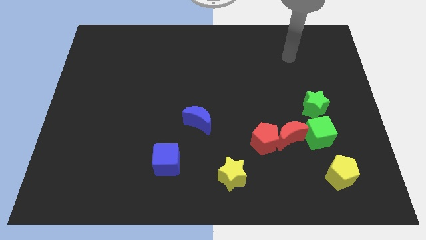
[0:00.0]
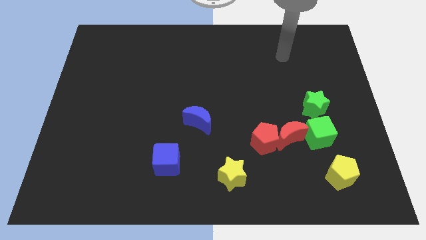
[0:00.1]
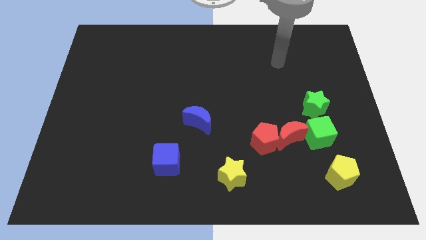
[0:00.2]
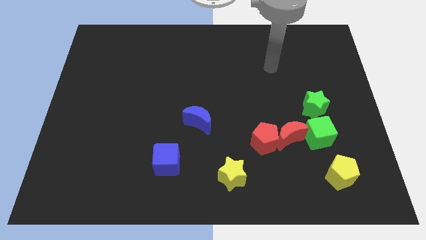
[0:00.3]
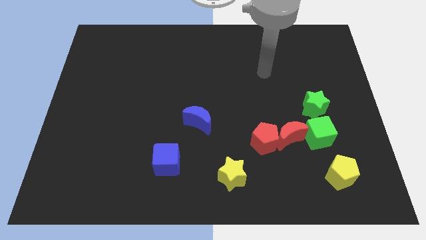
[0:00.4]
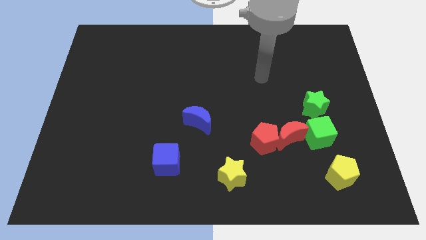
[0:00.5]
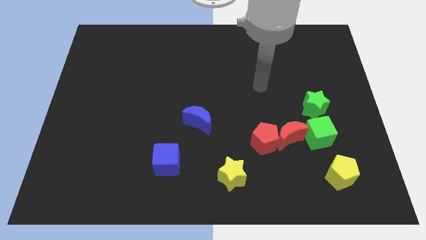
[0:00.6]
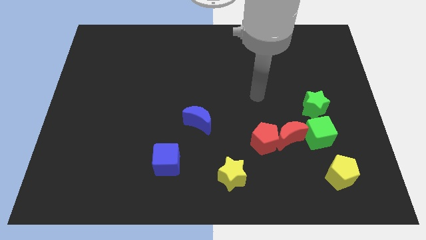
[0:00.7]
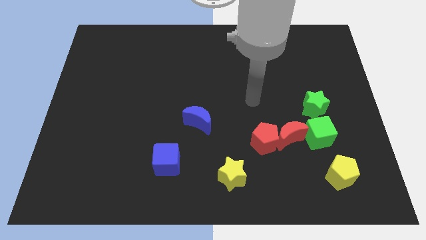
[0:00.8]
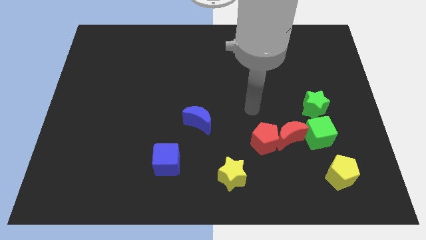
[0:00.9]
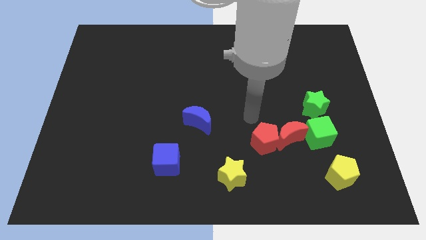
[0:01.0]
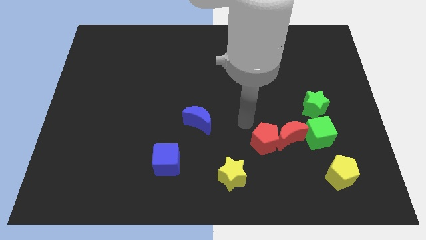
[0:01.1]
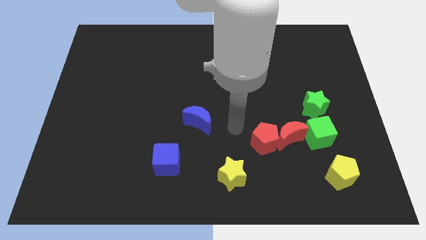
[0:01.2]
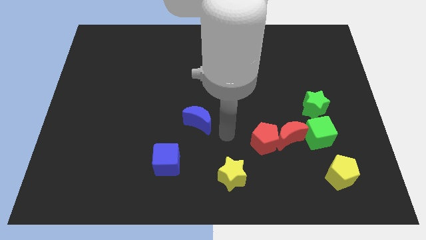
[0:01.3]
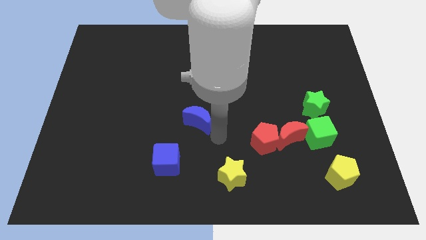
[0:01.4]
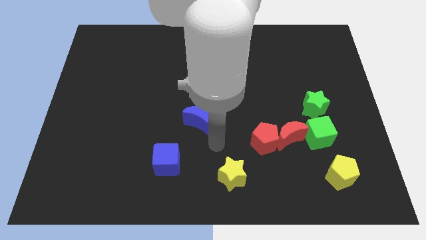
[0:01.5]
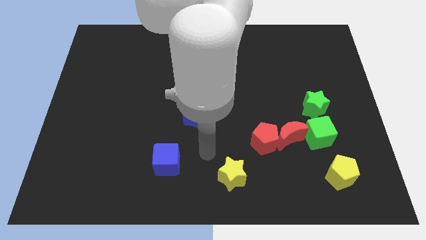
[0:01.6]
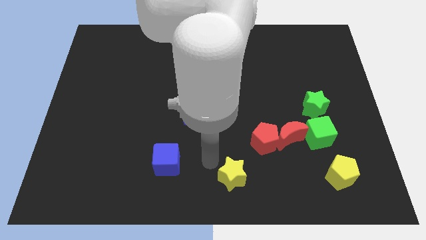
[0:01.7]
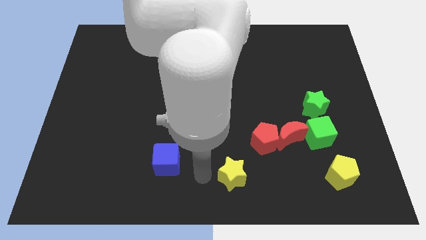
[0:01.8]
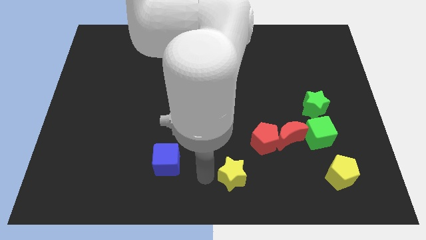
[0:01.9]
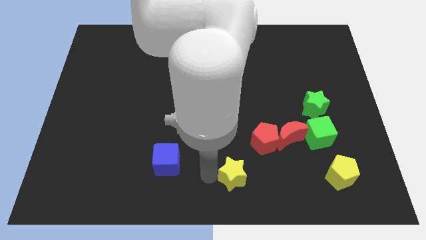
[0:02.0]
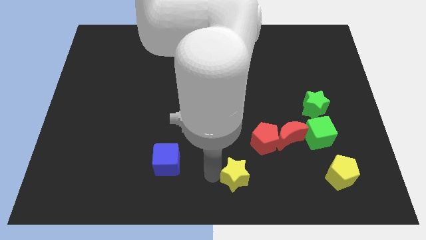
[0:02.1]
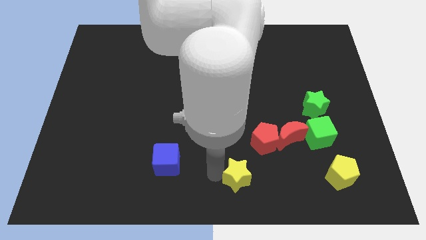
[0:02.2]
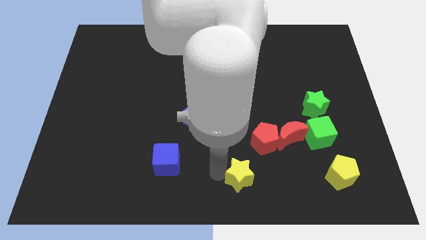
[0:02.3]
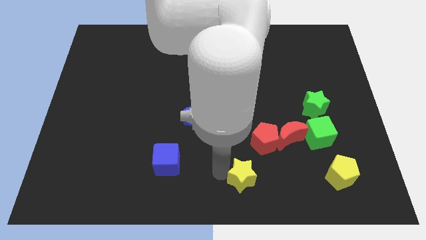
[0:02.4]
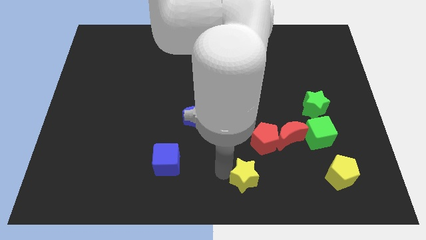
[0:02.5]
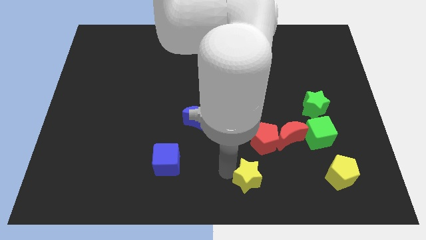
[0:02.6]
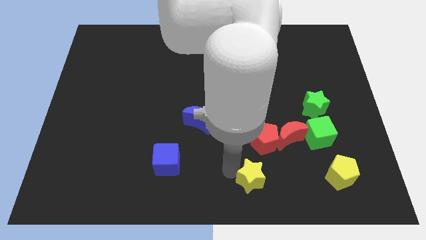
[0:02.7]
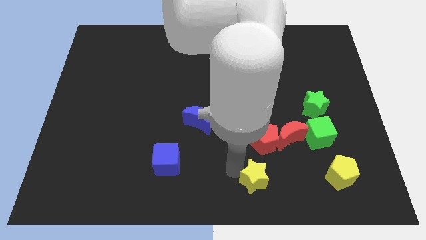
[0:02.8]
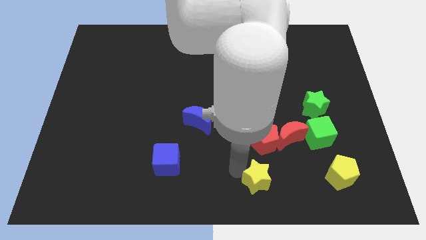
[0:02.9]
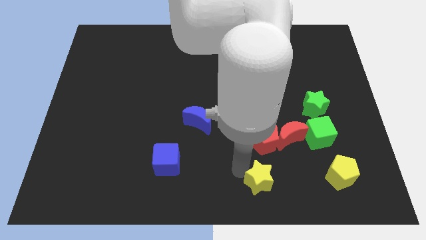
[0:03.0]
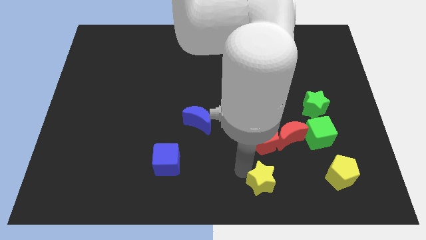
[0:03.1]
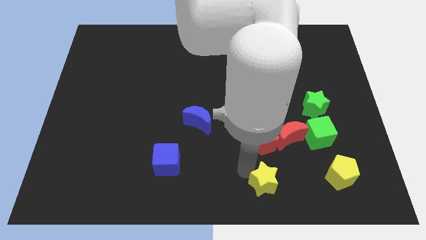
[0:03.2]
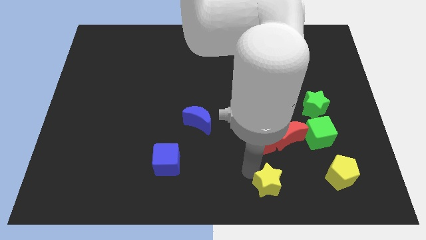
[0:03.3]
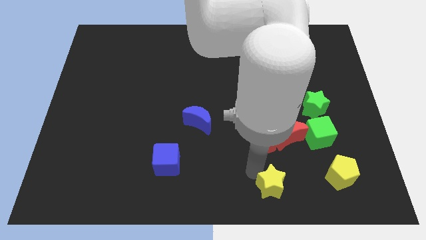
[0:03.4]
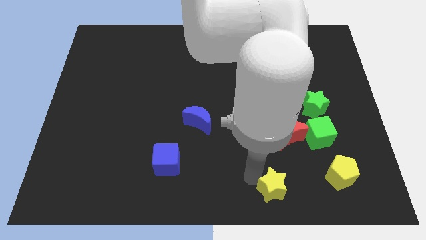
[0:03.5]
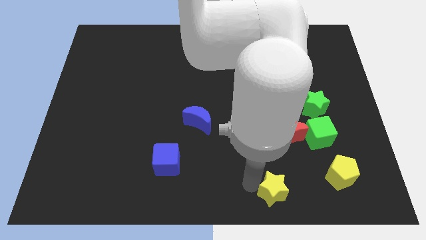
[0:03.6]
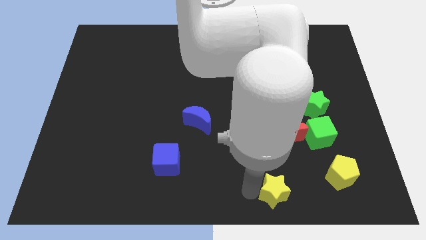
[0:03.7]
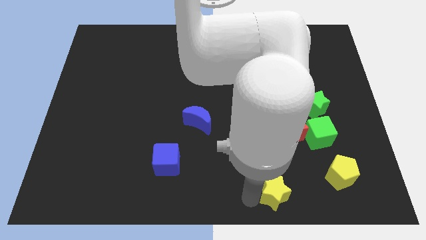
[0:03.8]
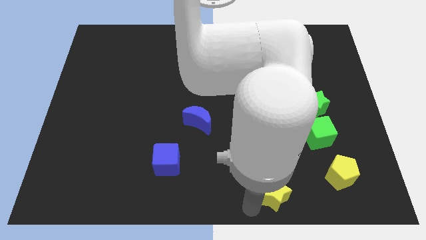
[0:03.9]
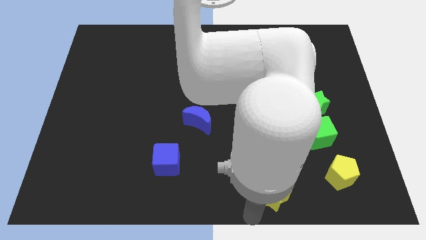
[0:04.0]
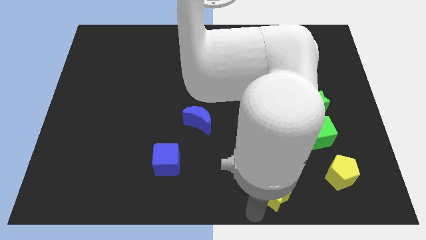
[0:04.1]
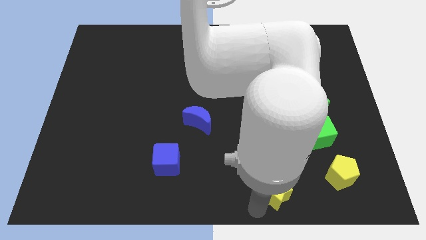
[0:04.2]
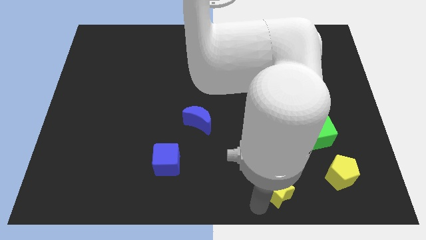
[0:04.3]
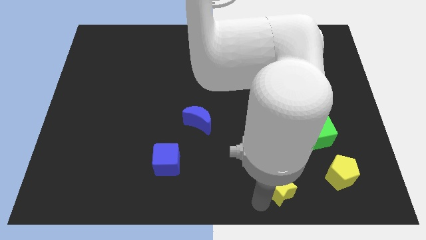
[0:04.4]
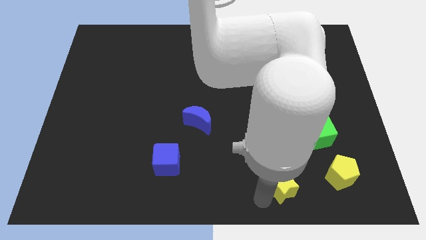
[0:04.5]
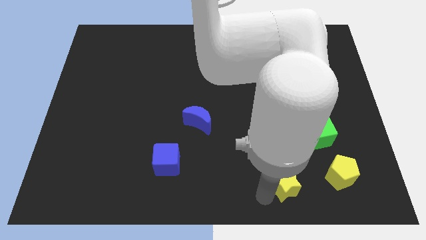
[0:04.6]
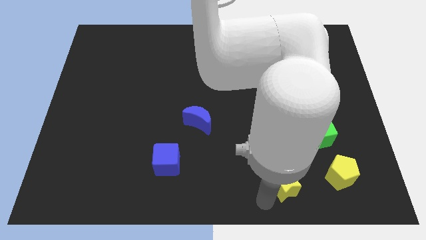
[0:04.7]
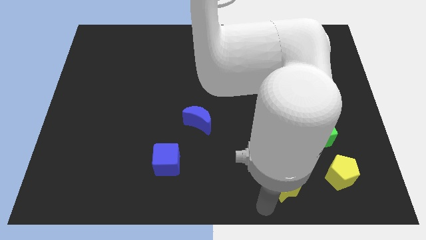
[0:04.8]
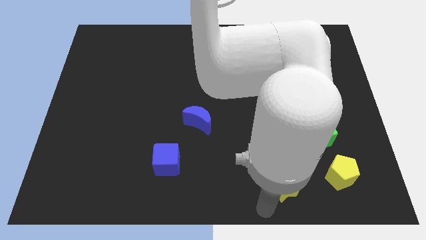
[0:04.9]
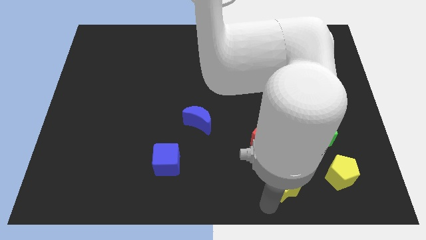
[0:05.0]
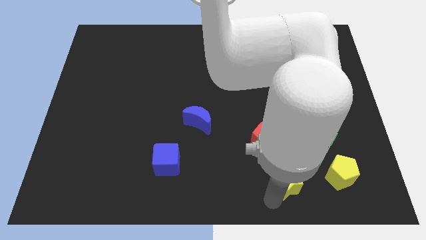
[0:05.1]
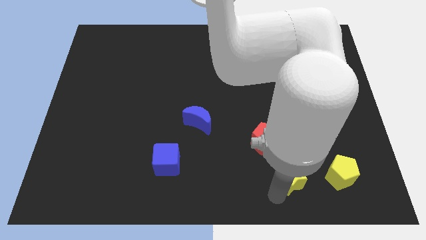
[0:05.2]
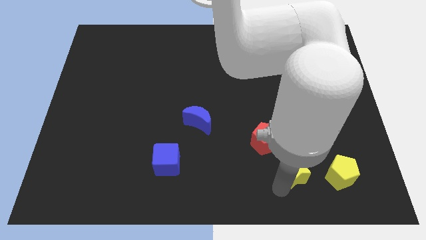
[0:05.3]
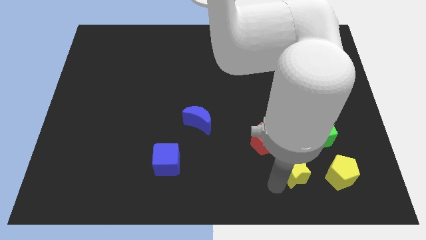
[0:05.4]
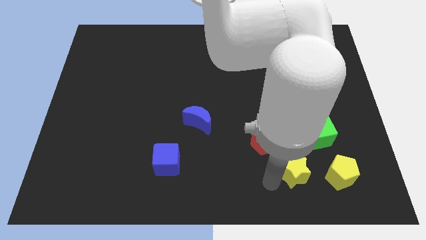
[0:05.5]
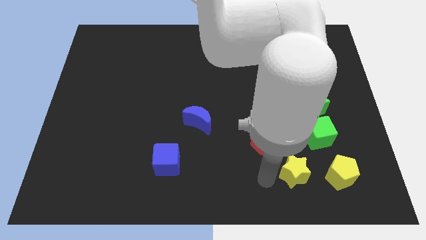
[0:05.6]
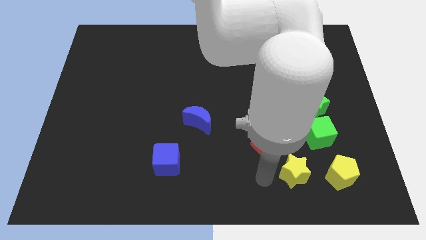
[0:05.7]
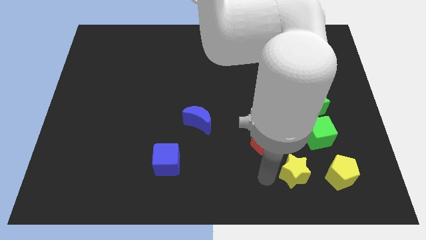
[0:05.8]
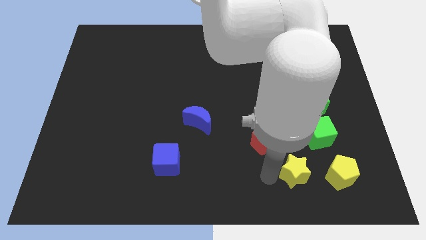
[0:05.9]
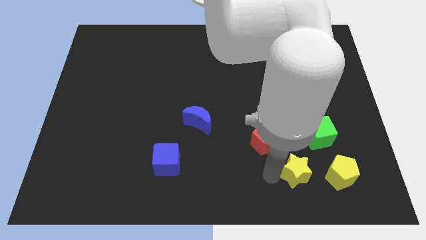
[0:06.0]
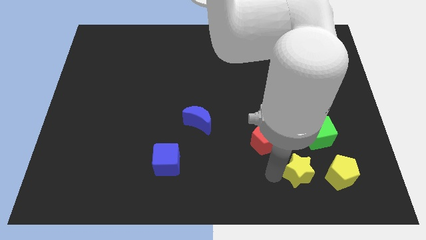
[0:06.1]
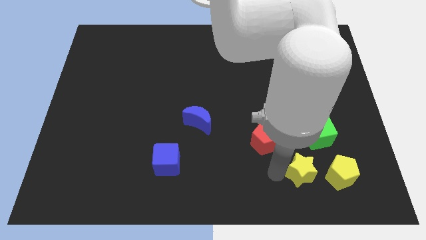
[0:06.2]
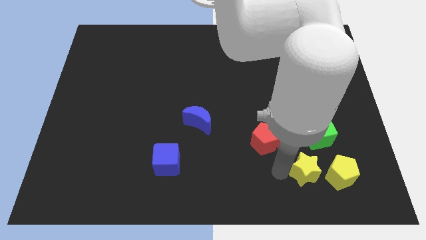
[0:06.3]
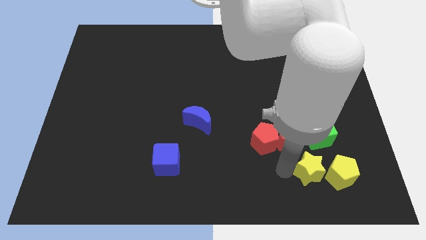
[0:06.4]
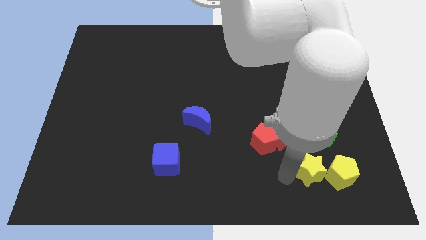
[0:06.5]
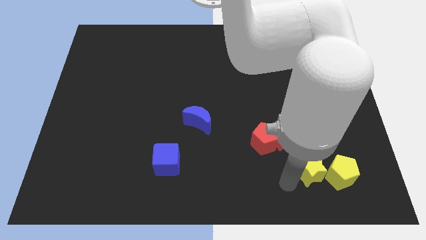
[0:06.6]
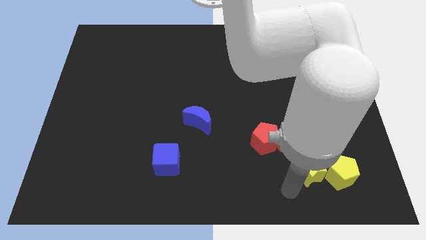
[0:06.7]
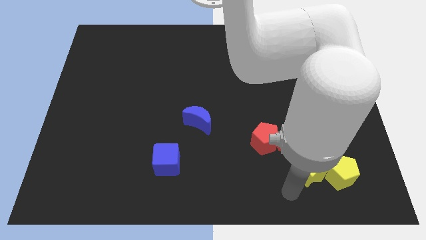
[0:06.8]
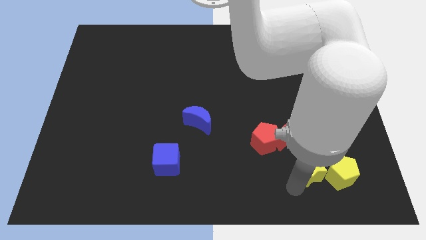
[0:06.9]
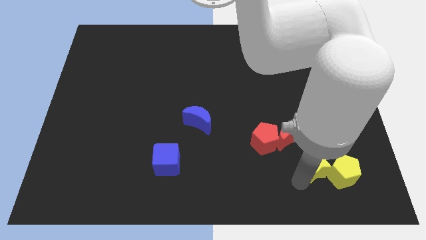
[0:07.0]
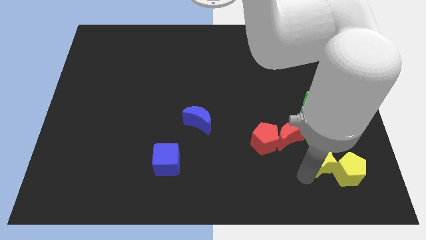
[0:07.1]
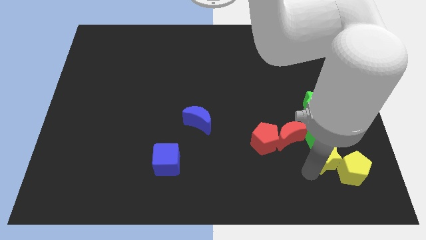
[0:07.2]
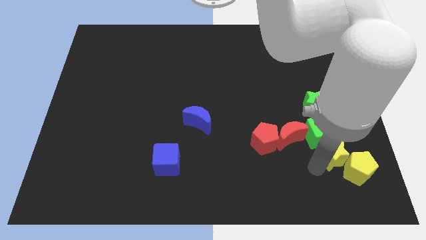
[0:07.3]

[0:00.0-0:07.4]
slide the yellow star to the right side of the red moon

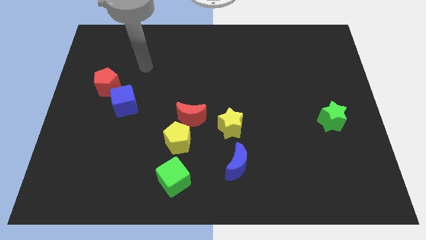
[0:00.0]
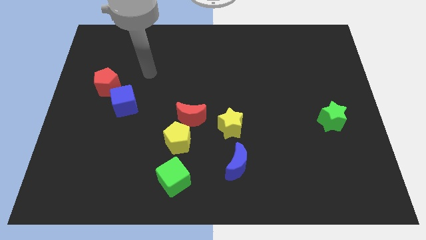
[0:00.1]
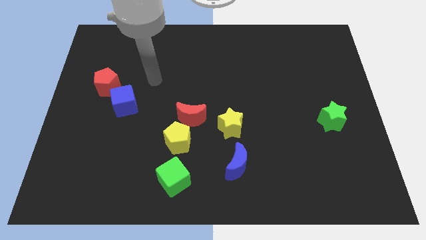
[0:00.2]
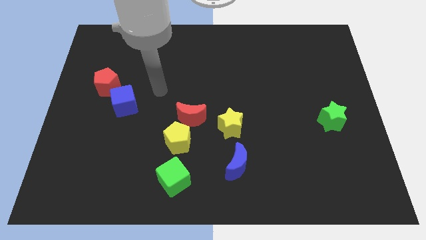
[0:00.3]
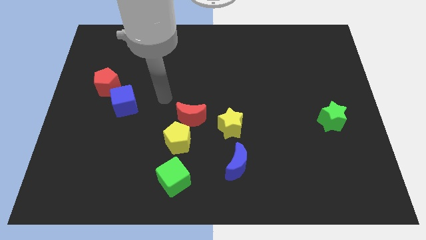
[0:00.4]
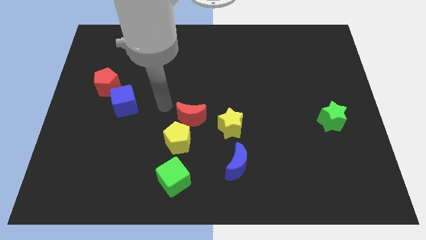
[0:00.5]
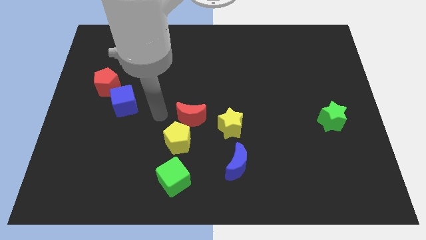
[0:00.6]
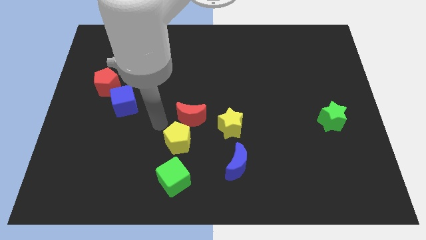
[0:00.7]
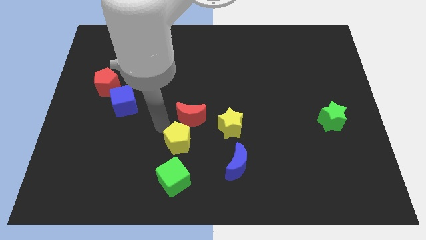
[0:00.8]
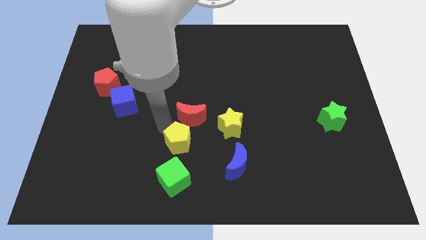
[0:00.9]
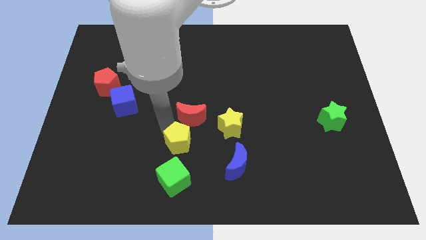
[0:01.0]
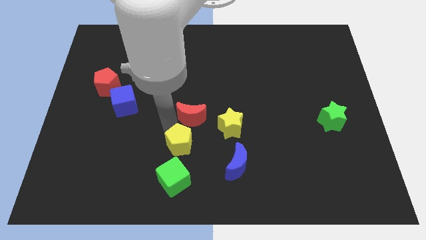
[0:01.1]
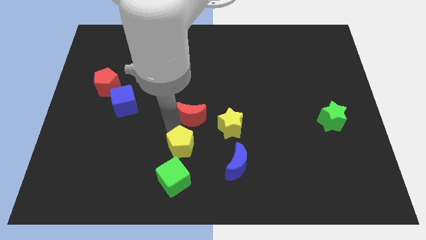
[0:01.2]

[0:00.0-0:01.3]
push the yellow pentagon to the top right of the green cube
